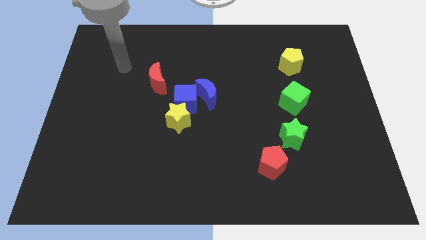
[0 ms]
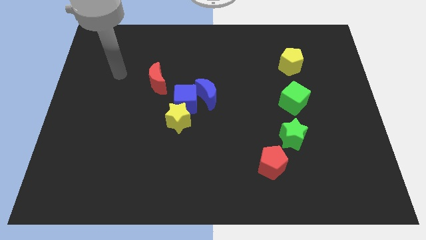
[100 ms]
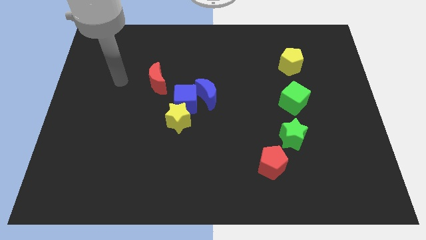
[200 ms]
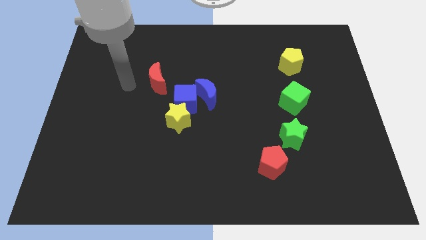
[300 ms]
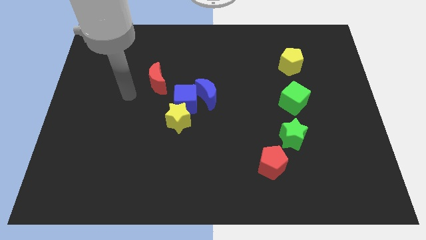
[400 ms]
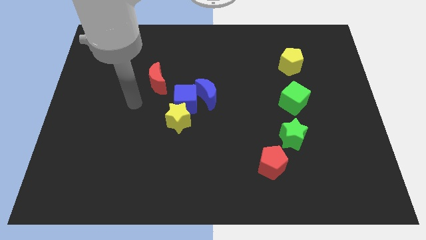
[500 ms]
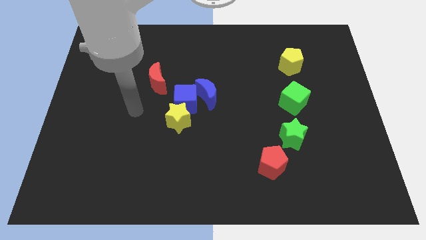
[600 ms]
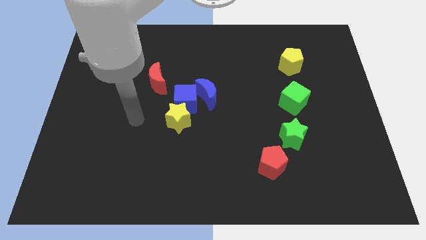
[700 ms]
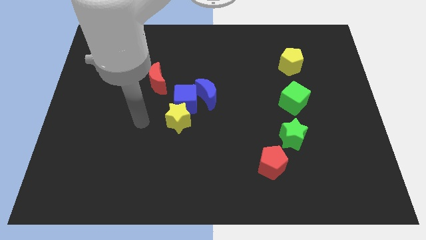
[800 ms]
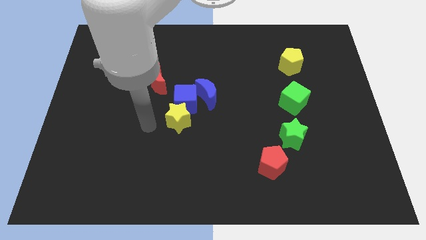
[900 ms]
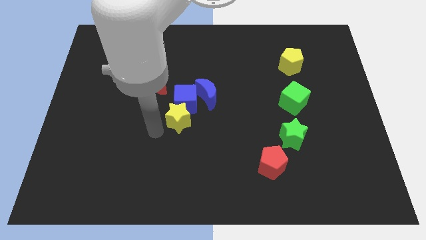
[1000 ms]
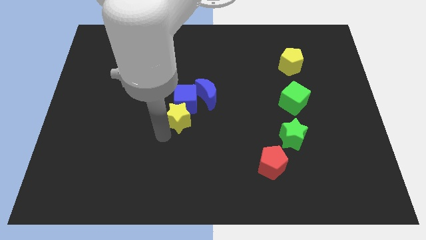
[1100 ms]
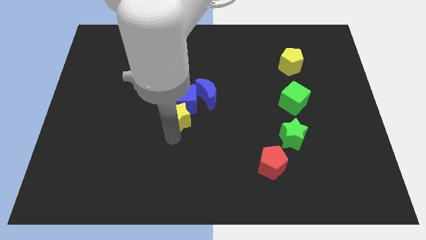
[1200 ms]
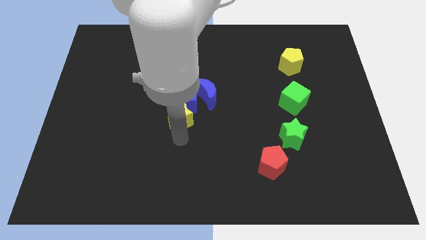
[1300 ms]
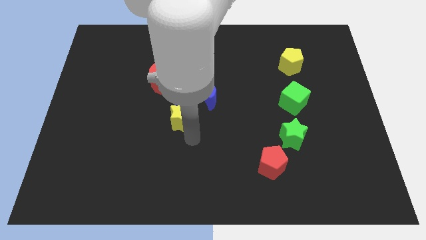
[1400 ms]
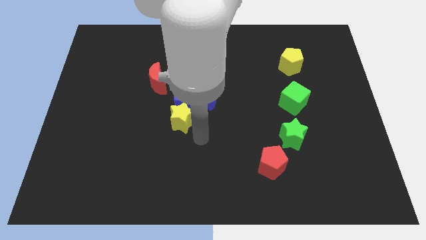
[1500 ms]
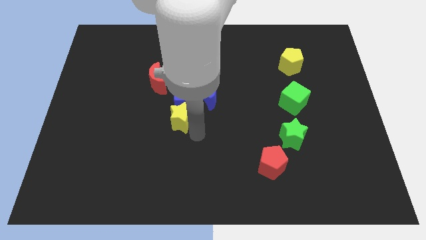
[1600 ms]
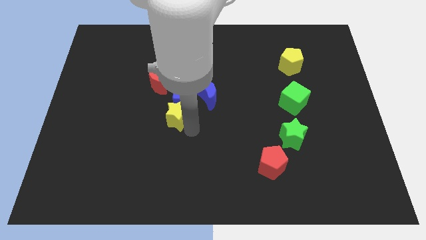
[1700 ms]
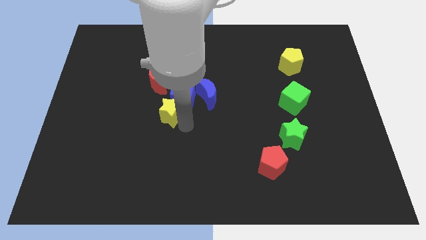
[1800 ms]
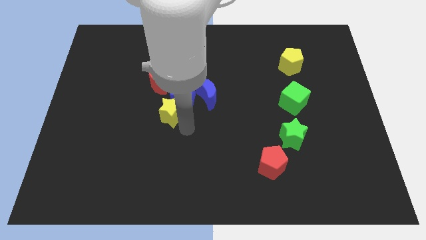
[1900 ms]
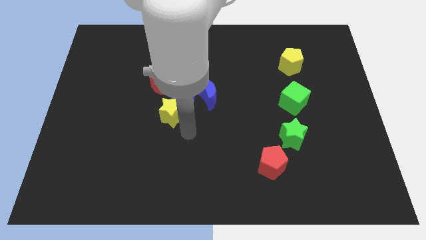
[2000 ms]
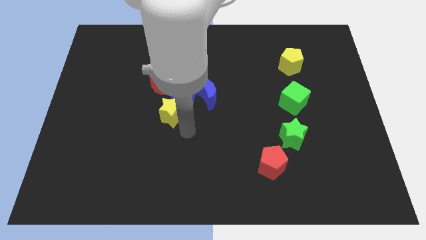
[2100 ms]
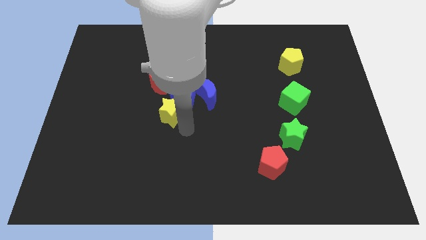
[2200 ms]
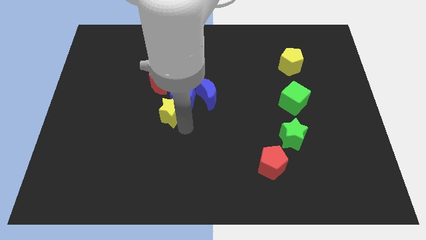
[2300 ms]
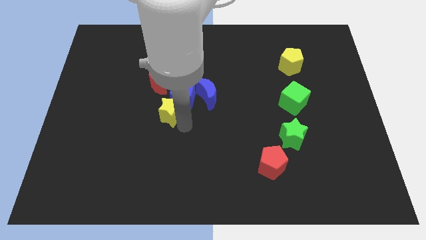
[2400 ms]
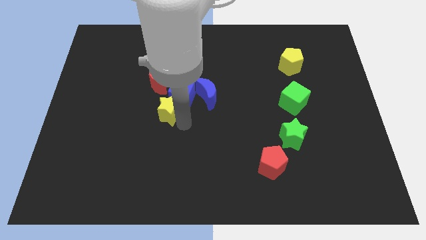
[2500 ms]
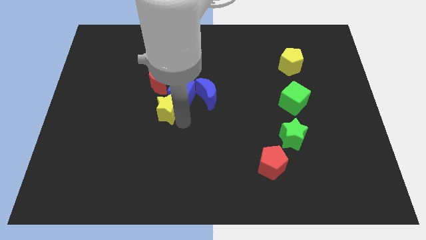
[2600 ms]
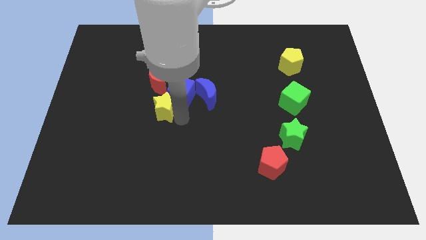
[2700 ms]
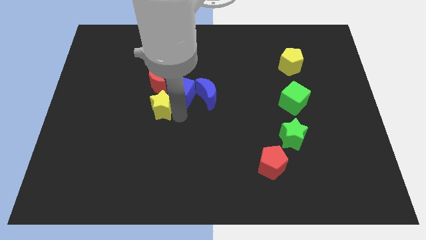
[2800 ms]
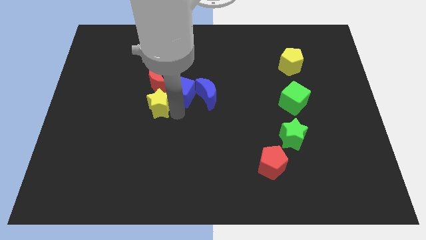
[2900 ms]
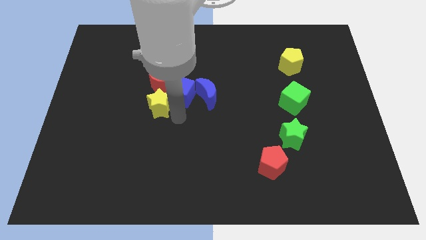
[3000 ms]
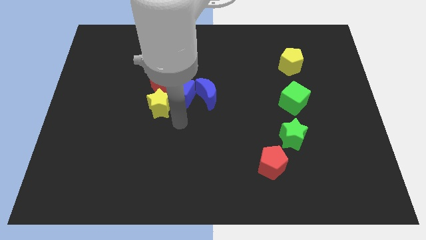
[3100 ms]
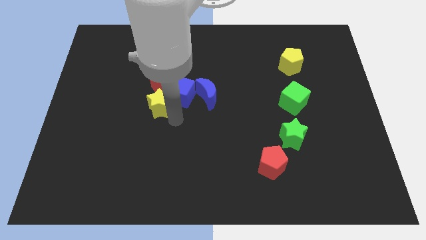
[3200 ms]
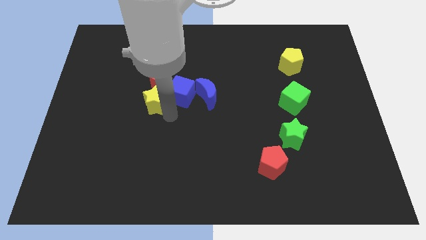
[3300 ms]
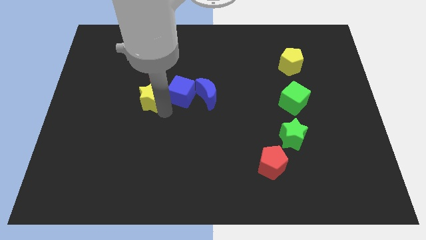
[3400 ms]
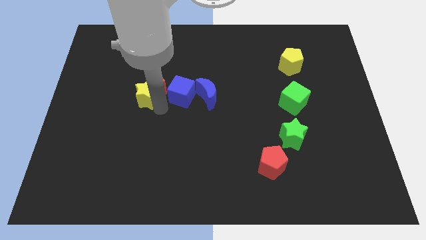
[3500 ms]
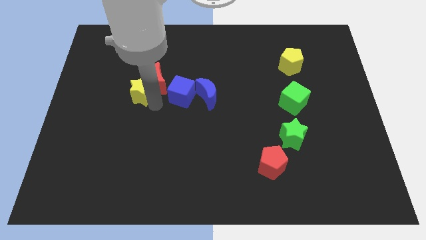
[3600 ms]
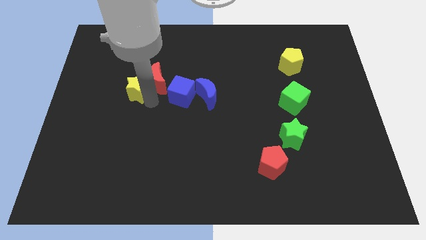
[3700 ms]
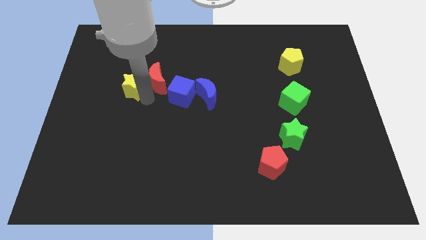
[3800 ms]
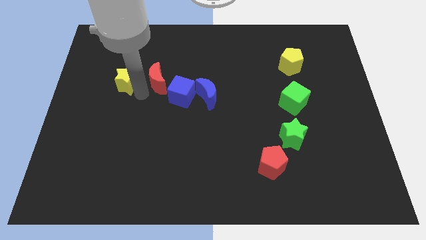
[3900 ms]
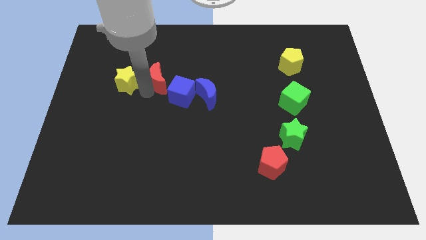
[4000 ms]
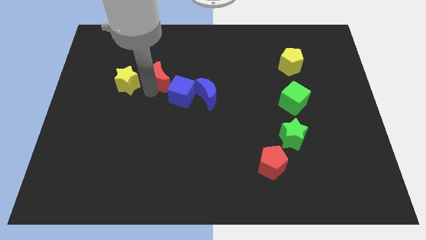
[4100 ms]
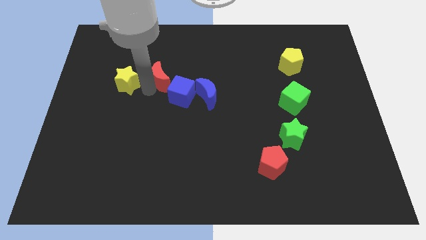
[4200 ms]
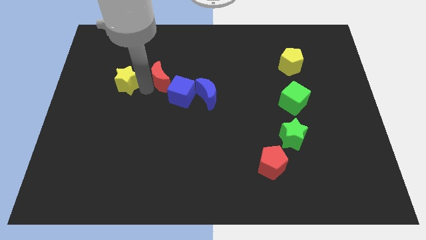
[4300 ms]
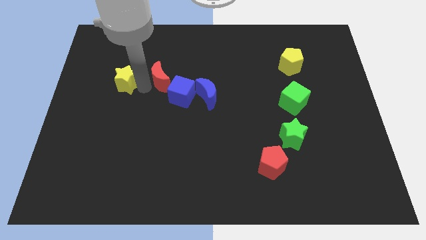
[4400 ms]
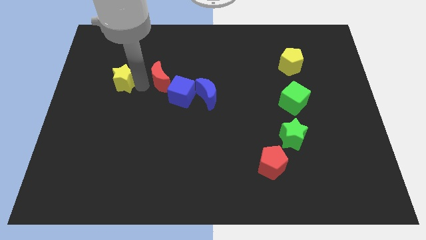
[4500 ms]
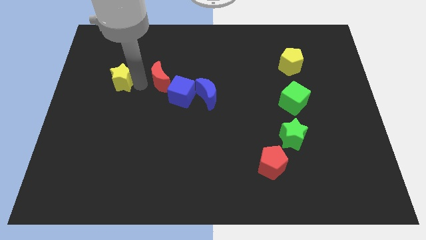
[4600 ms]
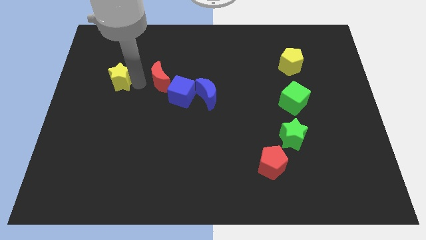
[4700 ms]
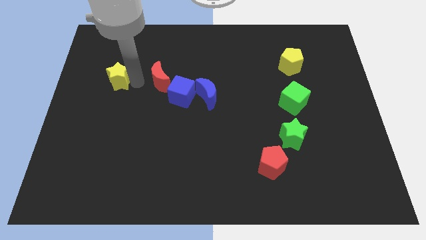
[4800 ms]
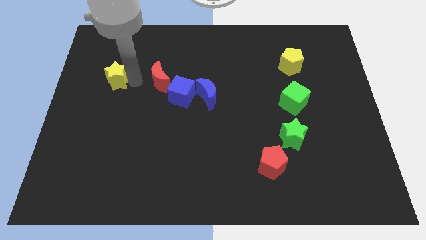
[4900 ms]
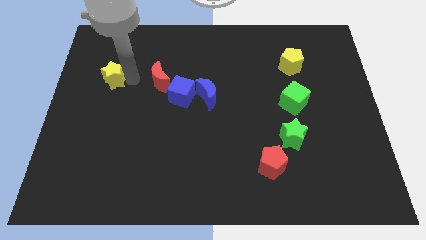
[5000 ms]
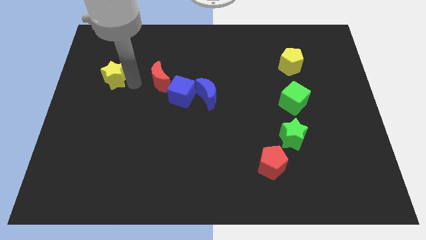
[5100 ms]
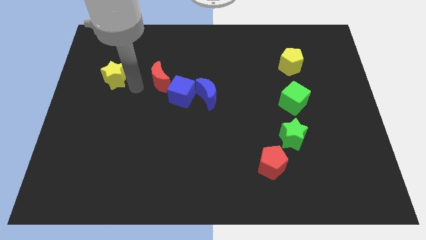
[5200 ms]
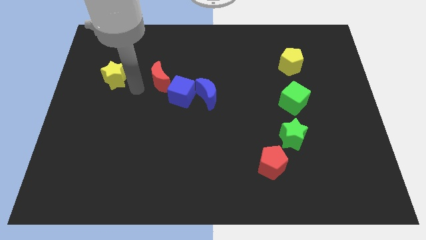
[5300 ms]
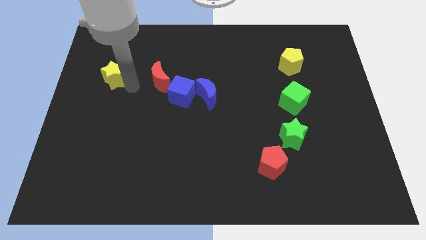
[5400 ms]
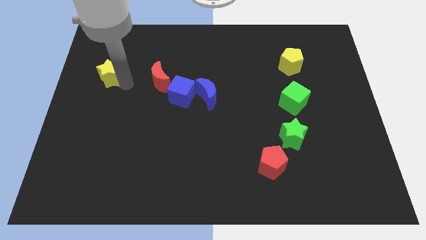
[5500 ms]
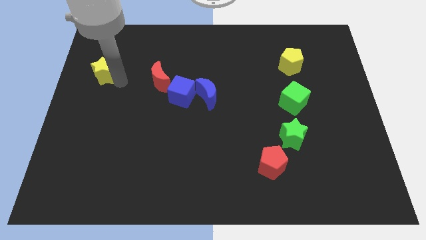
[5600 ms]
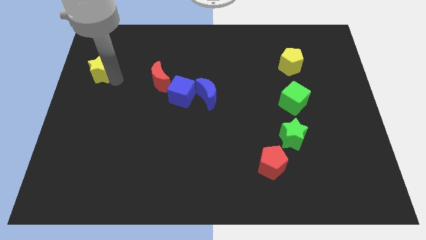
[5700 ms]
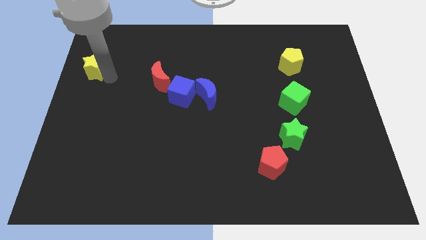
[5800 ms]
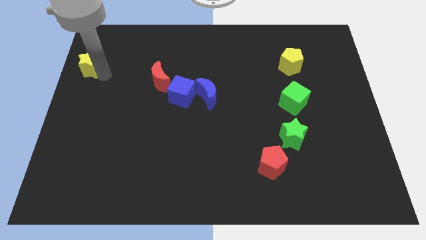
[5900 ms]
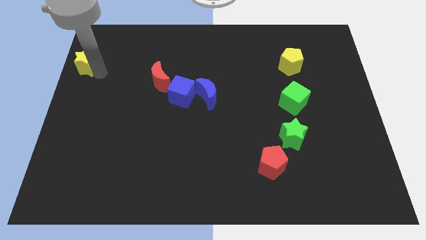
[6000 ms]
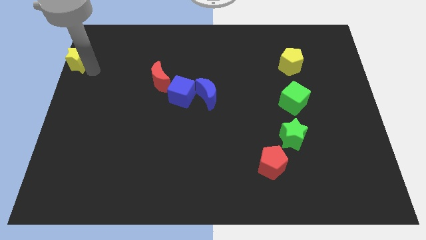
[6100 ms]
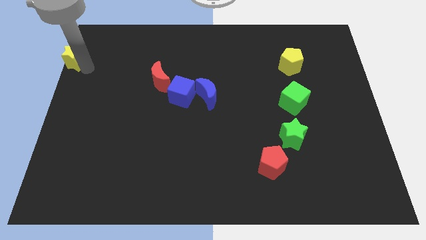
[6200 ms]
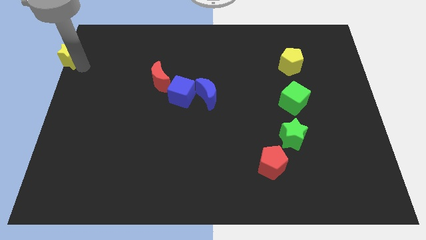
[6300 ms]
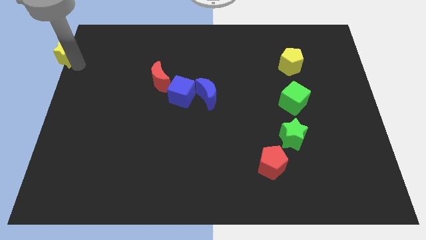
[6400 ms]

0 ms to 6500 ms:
slide the yellow star to the top left
